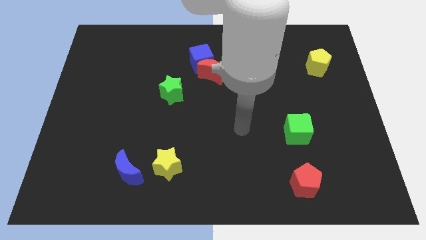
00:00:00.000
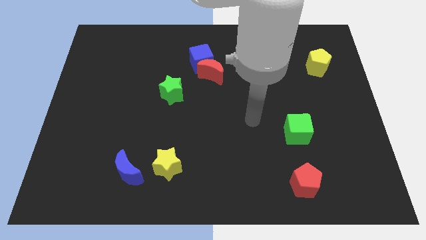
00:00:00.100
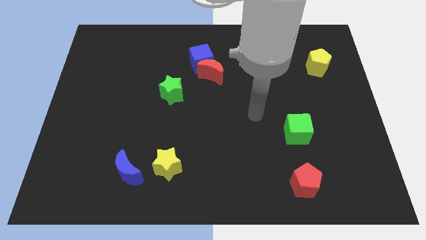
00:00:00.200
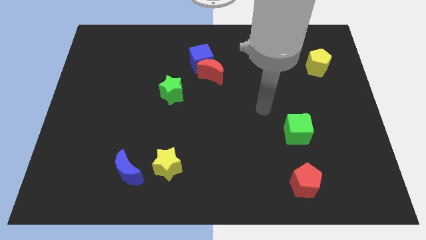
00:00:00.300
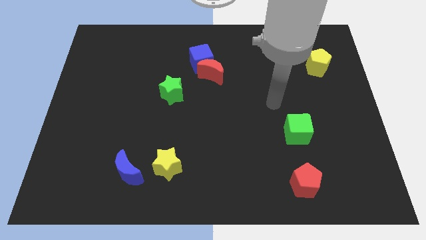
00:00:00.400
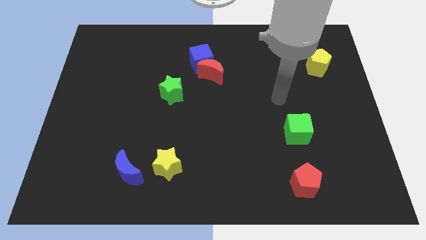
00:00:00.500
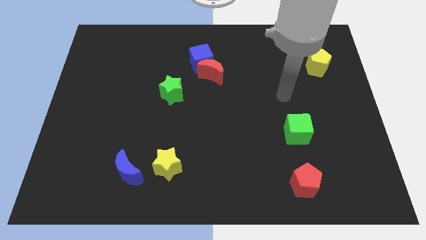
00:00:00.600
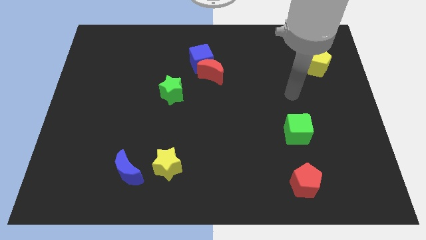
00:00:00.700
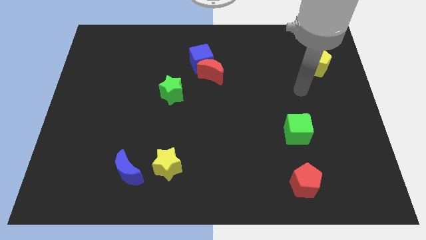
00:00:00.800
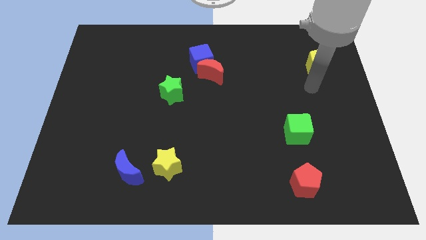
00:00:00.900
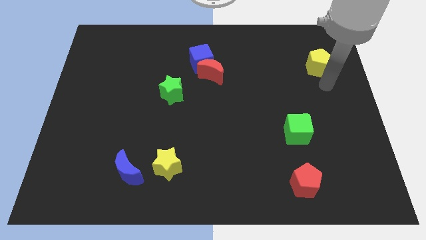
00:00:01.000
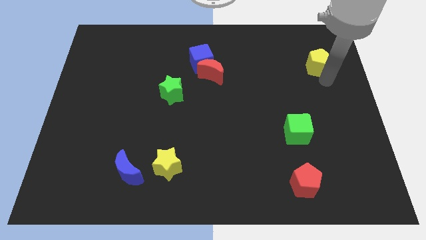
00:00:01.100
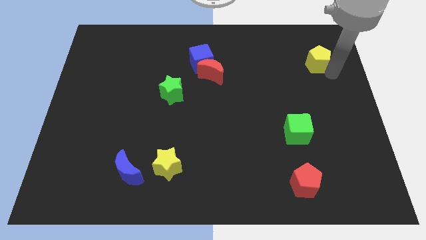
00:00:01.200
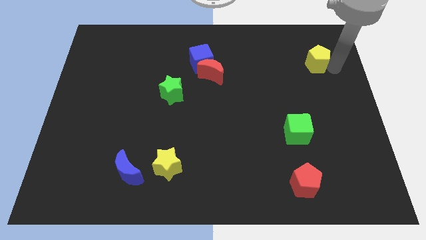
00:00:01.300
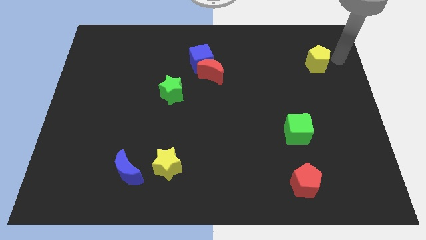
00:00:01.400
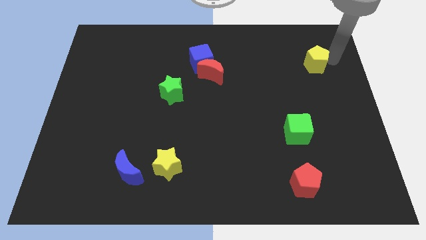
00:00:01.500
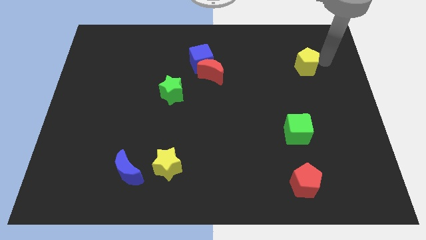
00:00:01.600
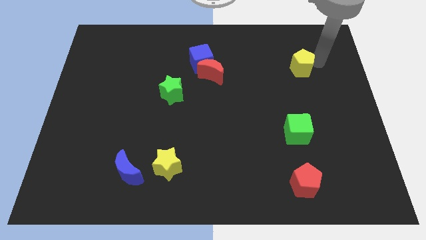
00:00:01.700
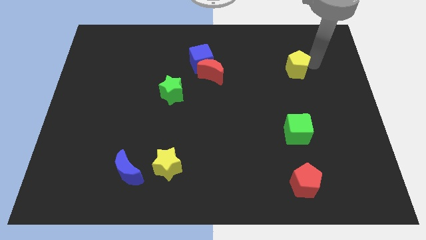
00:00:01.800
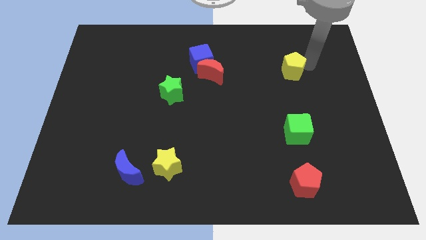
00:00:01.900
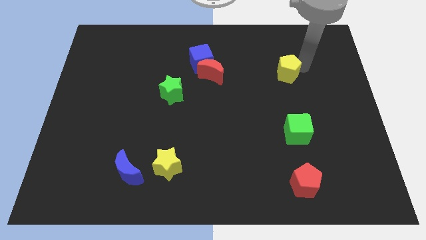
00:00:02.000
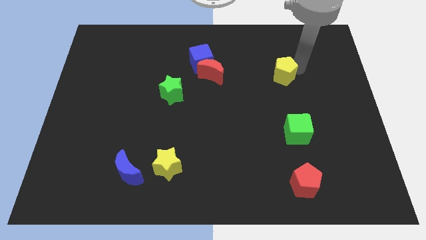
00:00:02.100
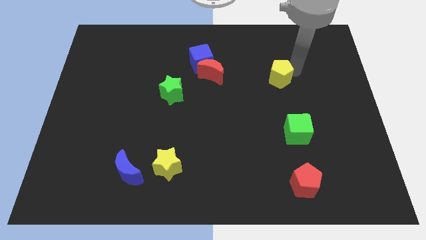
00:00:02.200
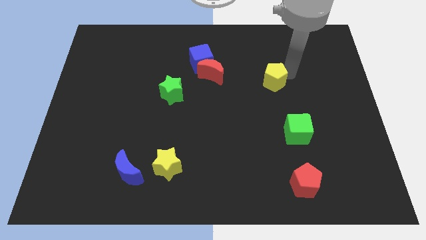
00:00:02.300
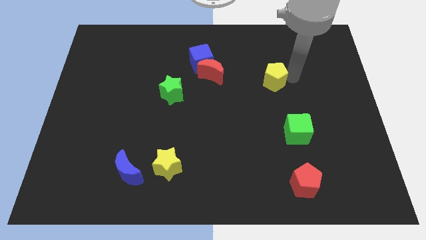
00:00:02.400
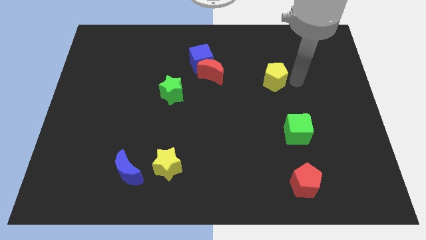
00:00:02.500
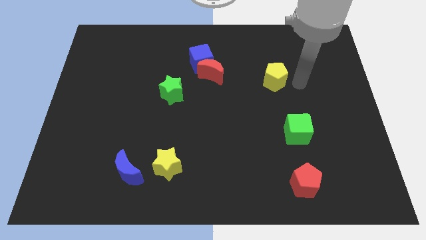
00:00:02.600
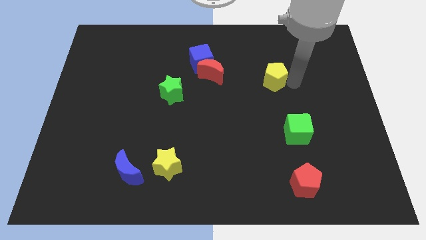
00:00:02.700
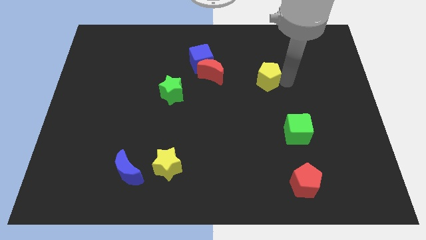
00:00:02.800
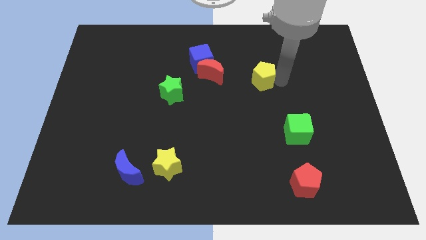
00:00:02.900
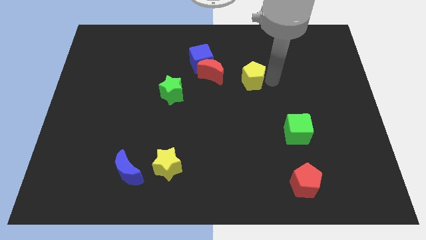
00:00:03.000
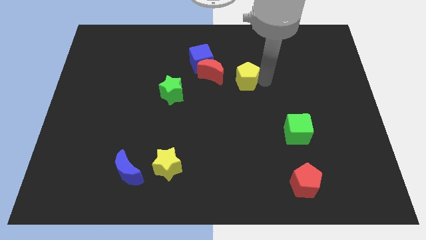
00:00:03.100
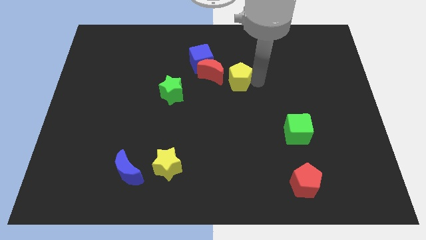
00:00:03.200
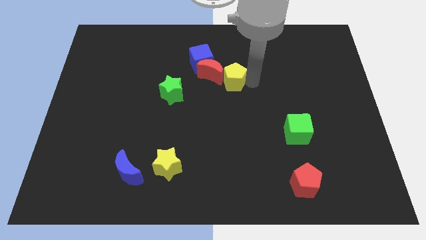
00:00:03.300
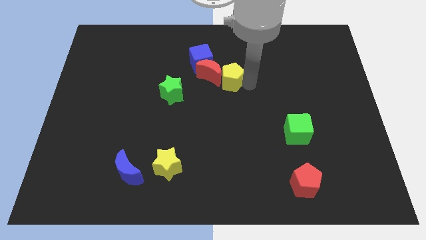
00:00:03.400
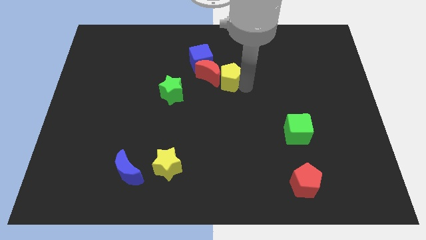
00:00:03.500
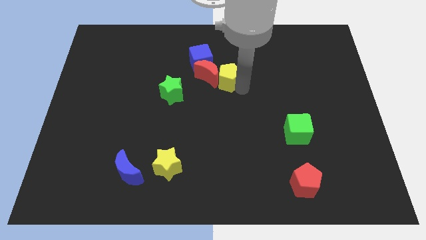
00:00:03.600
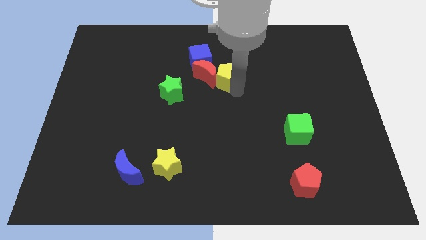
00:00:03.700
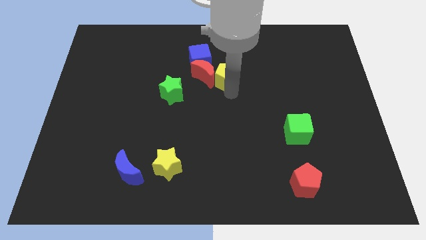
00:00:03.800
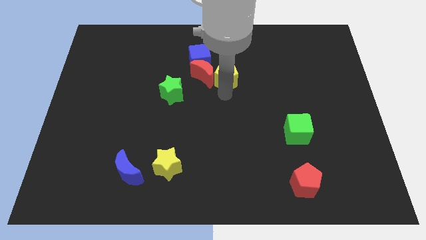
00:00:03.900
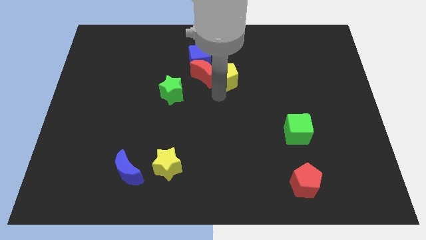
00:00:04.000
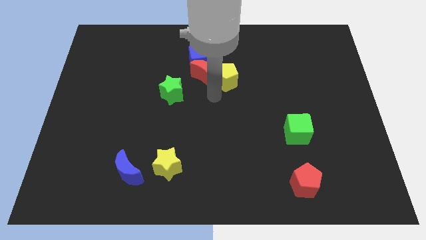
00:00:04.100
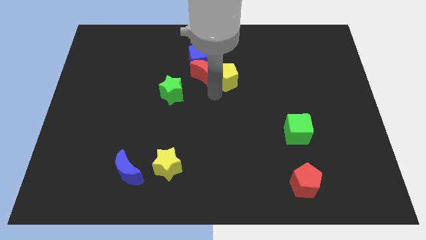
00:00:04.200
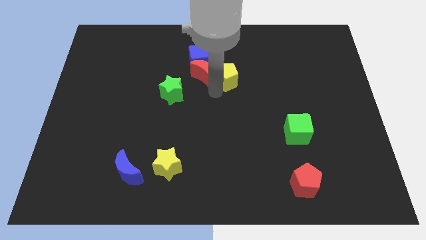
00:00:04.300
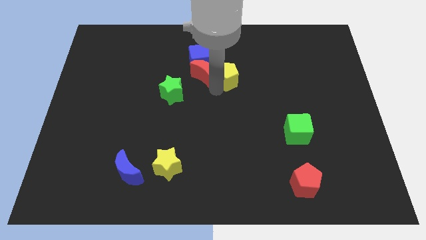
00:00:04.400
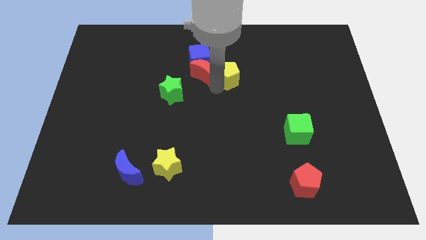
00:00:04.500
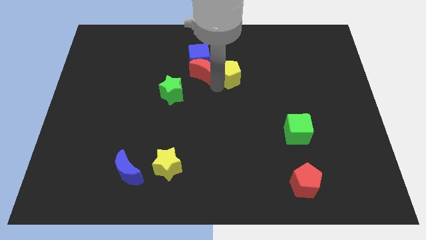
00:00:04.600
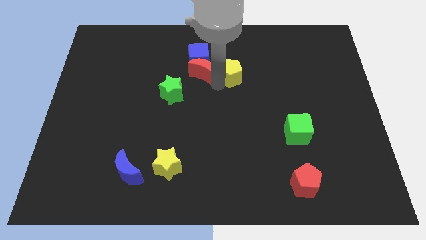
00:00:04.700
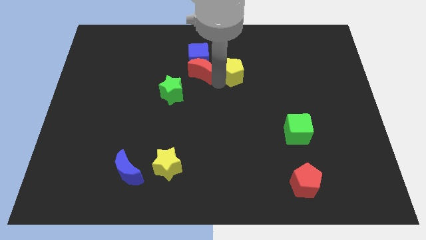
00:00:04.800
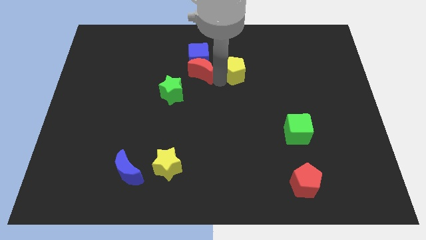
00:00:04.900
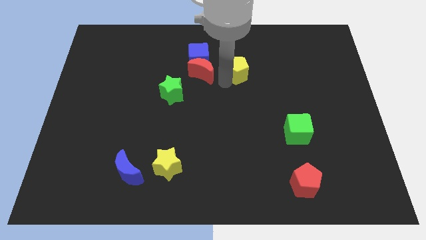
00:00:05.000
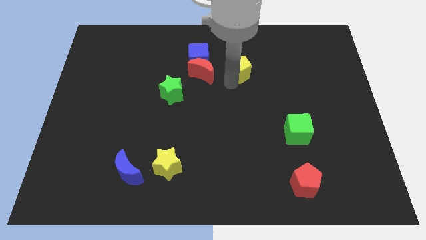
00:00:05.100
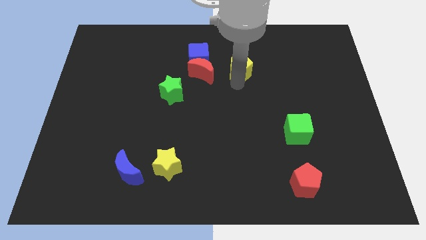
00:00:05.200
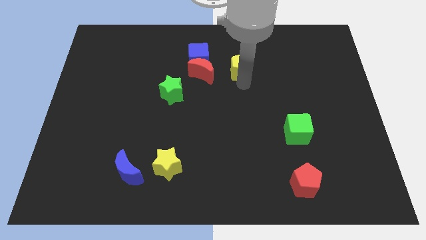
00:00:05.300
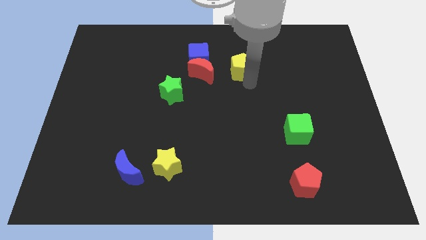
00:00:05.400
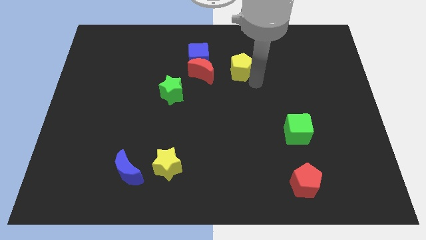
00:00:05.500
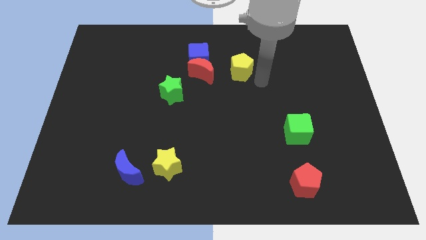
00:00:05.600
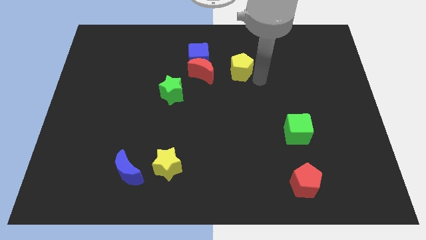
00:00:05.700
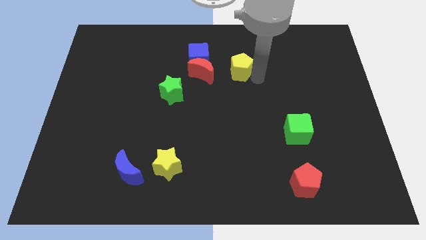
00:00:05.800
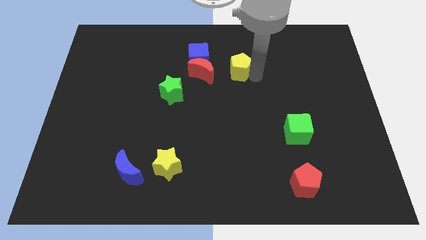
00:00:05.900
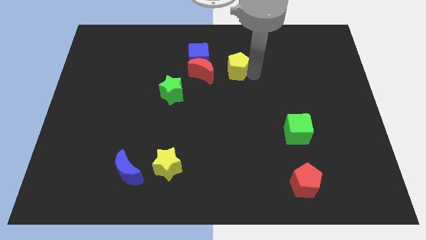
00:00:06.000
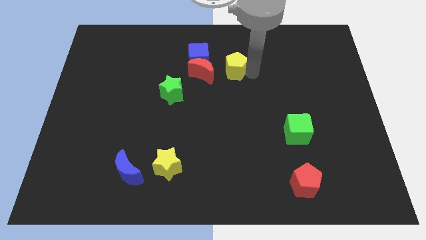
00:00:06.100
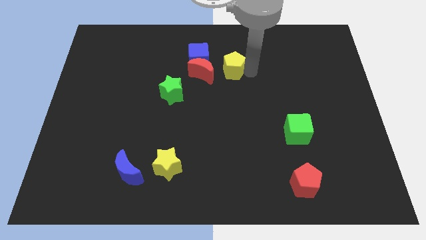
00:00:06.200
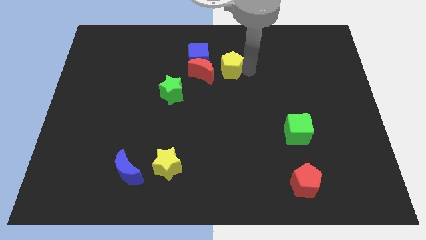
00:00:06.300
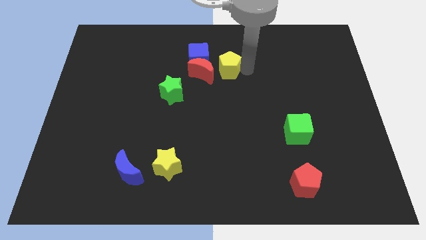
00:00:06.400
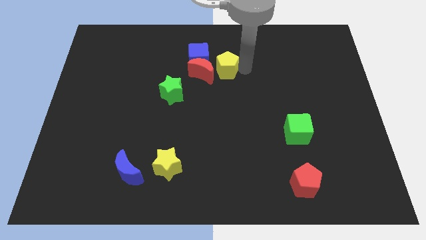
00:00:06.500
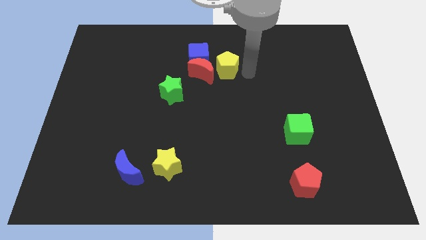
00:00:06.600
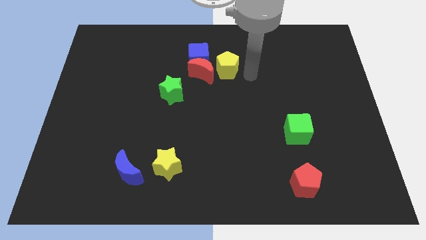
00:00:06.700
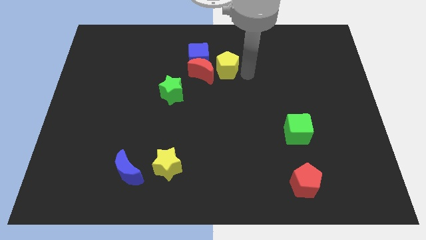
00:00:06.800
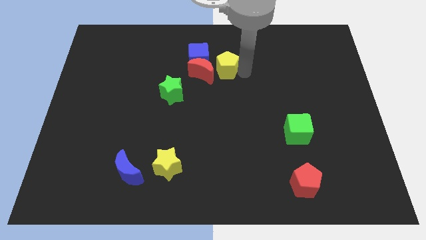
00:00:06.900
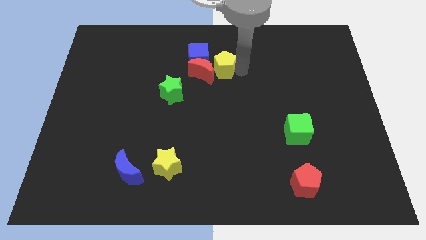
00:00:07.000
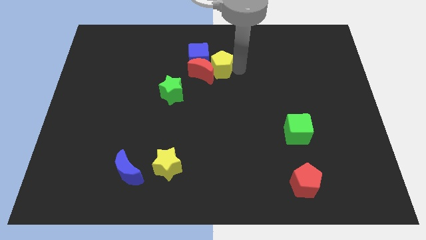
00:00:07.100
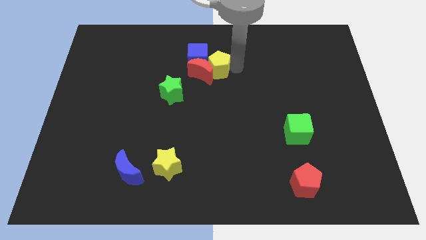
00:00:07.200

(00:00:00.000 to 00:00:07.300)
move the yellow pentagon close to the blue cube

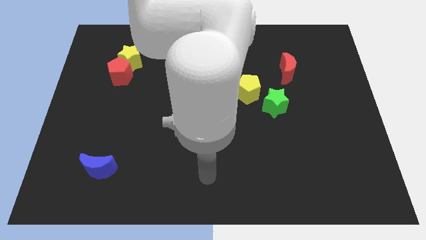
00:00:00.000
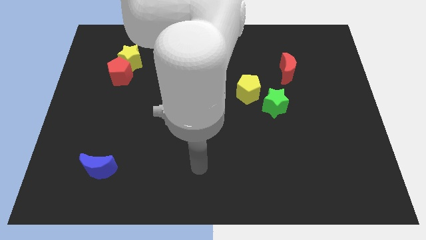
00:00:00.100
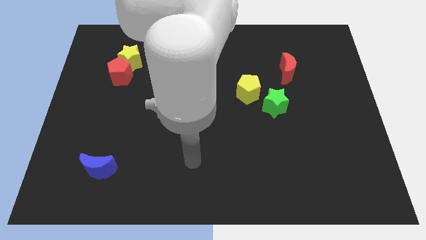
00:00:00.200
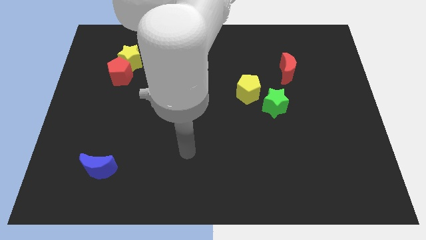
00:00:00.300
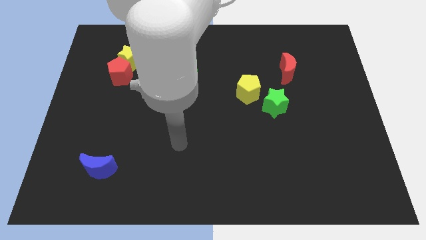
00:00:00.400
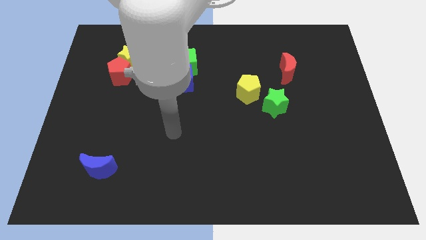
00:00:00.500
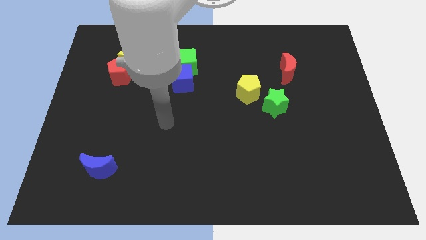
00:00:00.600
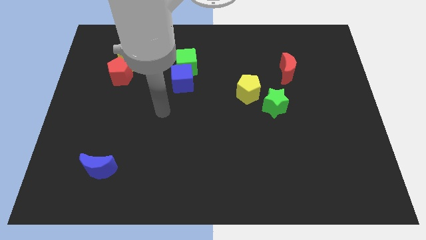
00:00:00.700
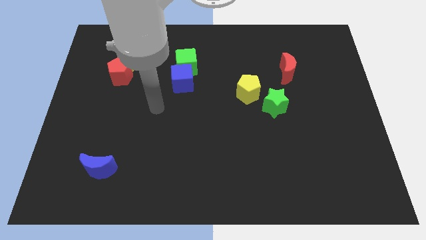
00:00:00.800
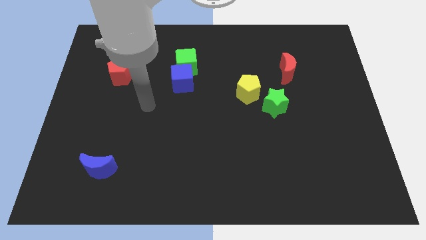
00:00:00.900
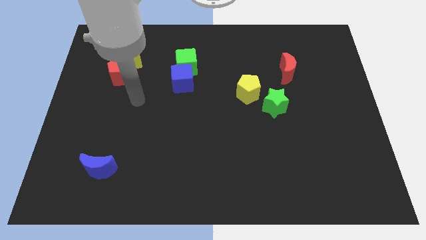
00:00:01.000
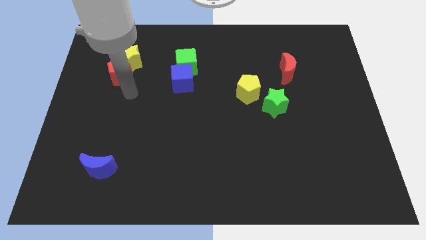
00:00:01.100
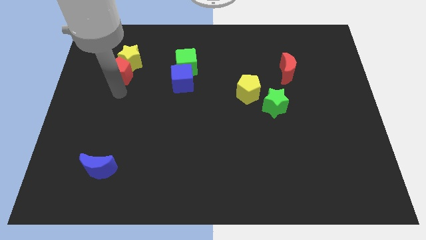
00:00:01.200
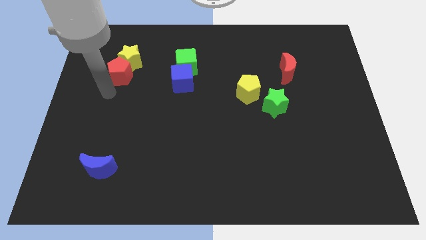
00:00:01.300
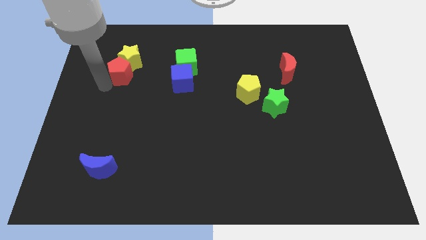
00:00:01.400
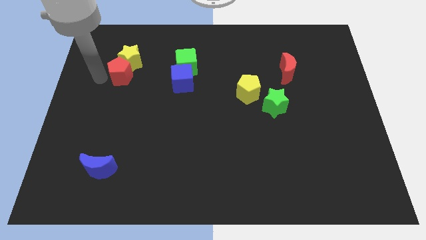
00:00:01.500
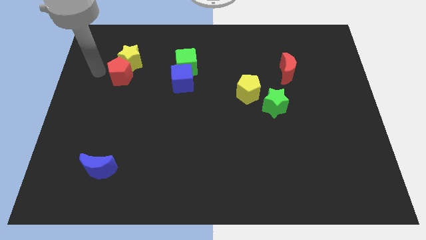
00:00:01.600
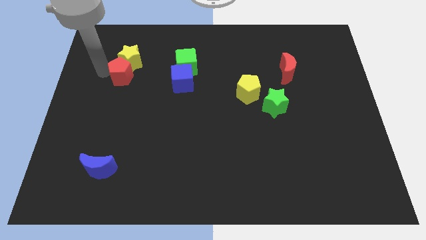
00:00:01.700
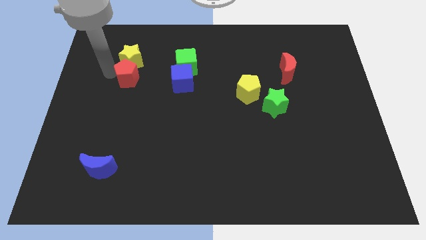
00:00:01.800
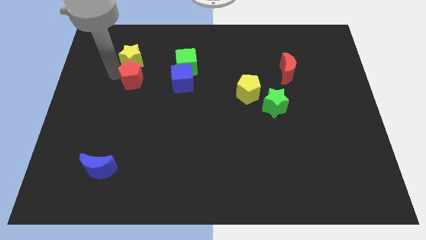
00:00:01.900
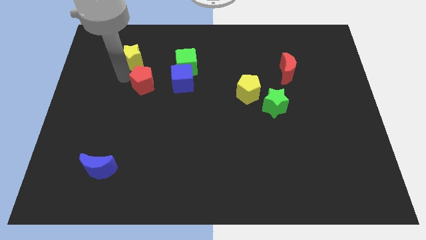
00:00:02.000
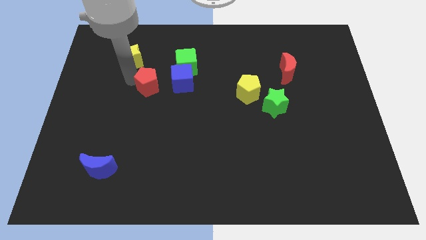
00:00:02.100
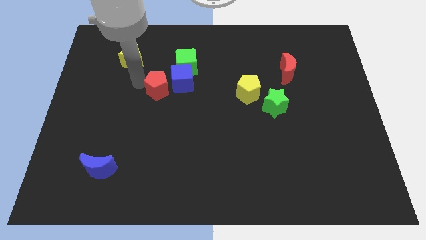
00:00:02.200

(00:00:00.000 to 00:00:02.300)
put the red pentagon close to the blue cube
